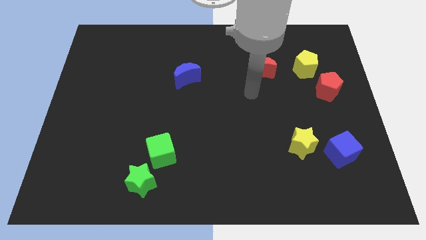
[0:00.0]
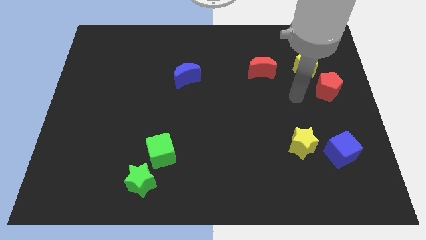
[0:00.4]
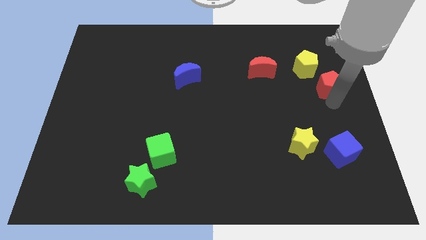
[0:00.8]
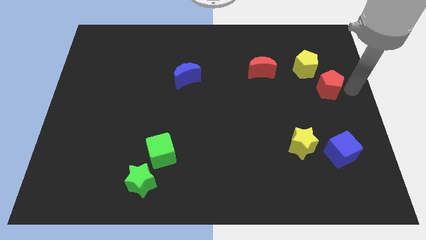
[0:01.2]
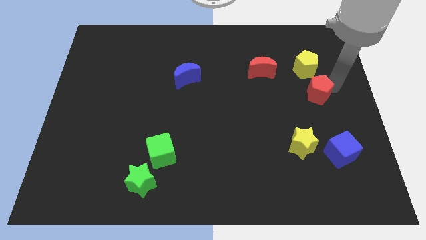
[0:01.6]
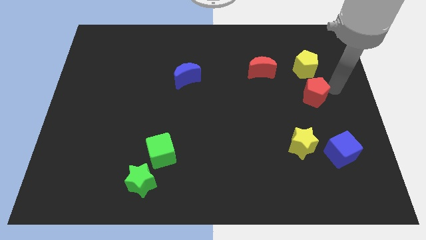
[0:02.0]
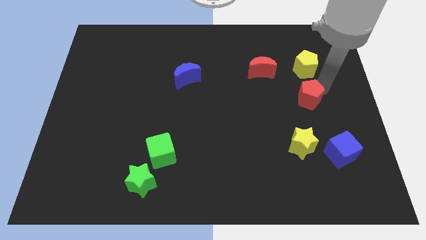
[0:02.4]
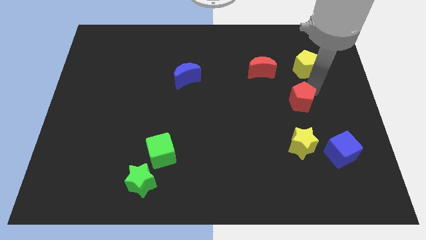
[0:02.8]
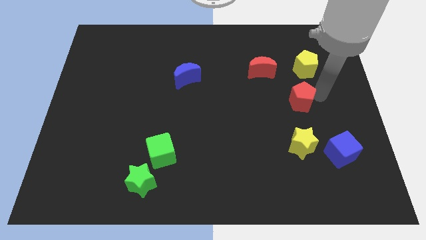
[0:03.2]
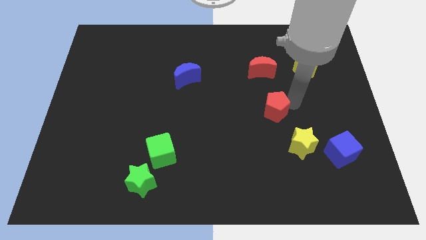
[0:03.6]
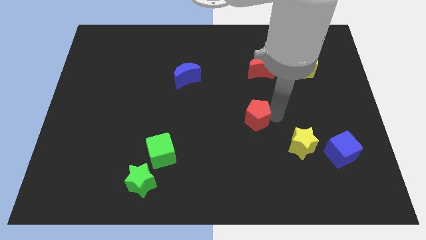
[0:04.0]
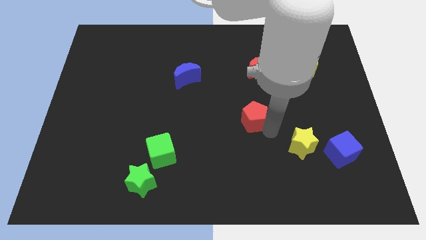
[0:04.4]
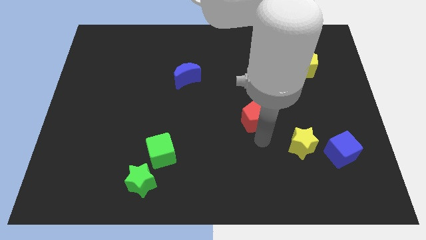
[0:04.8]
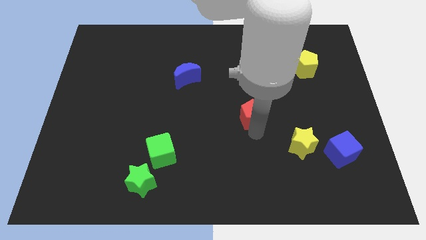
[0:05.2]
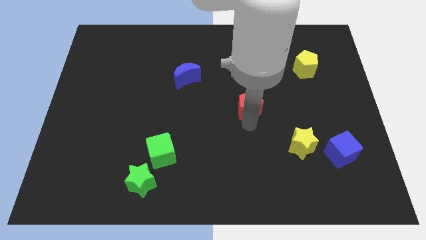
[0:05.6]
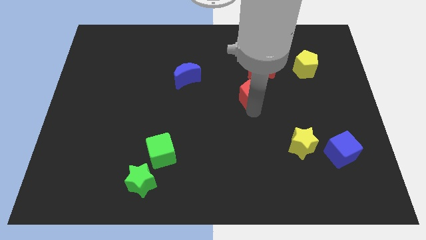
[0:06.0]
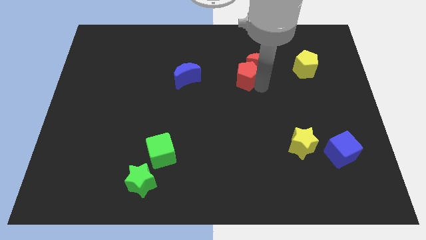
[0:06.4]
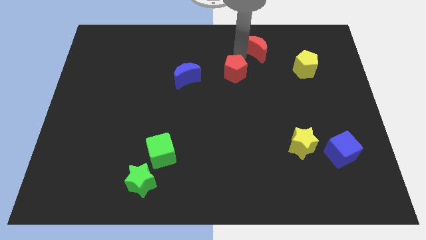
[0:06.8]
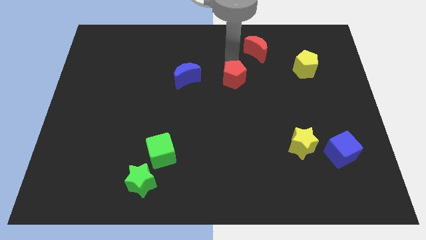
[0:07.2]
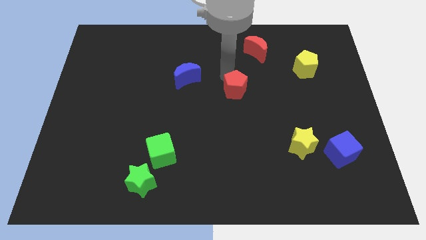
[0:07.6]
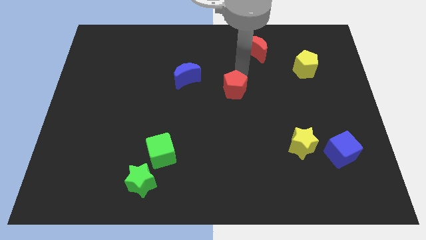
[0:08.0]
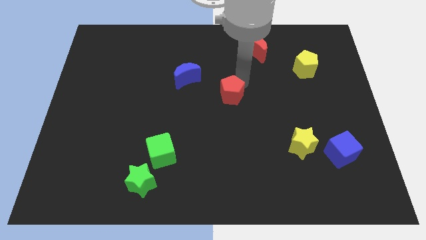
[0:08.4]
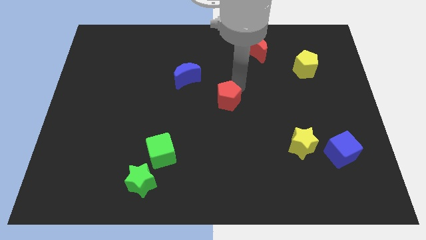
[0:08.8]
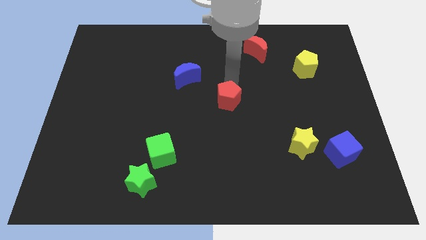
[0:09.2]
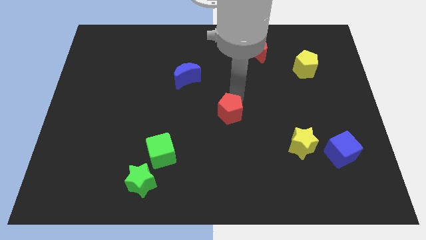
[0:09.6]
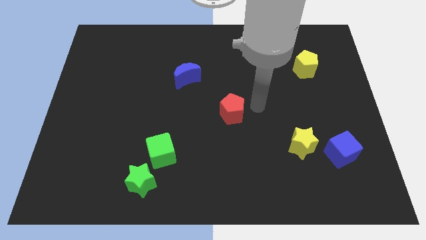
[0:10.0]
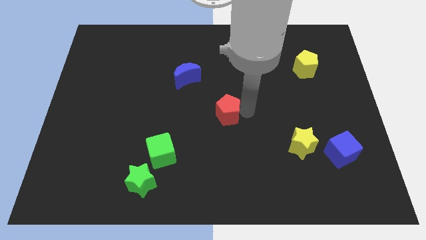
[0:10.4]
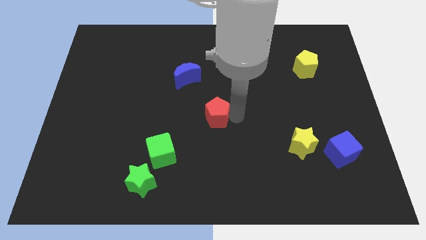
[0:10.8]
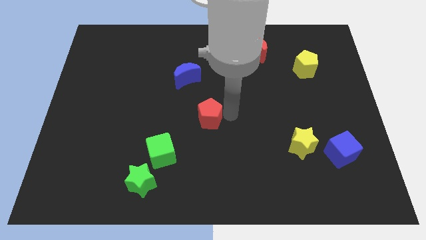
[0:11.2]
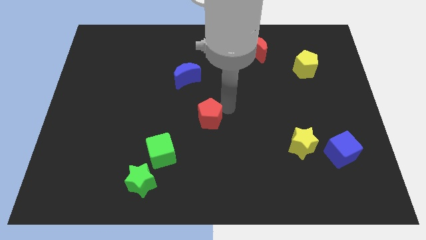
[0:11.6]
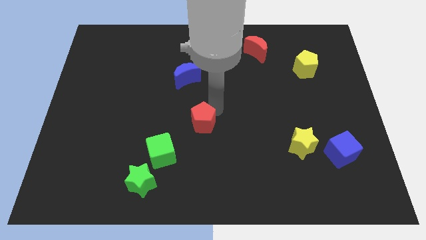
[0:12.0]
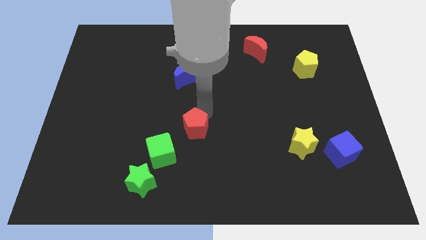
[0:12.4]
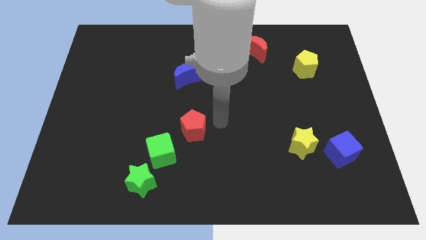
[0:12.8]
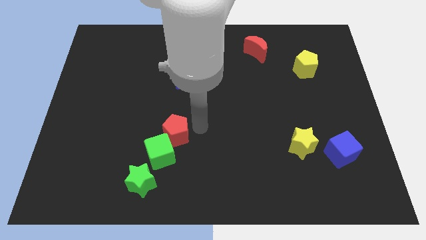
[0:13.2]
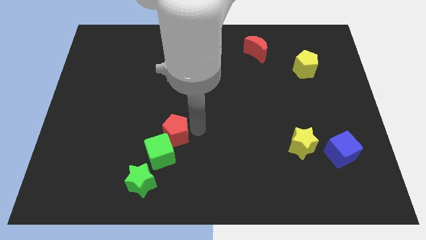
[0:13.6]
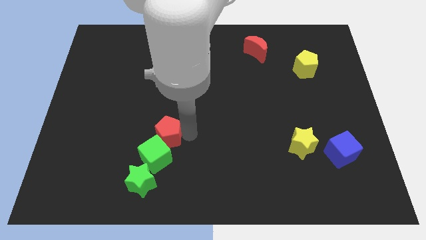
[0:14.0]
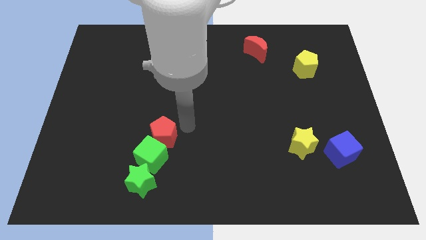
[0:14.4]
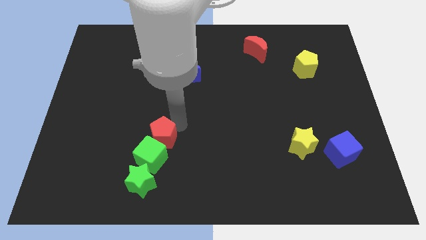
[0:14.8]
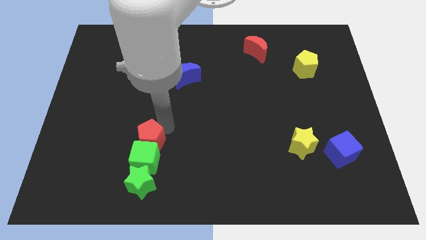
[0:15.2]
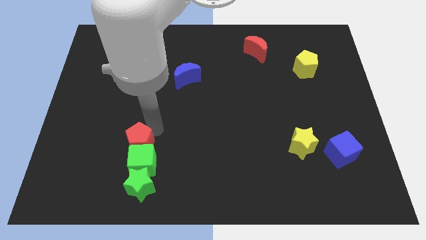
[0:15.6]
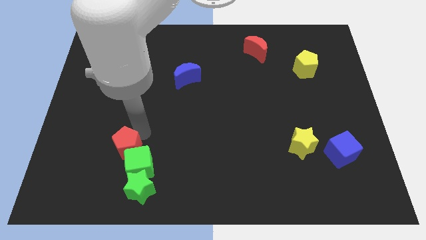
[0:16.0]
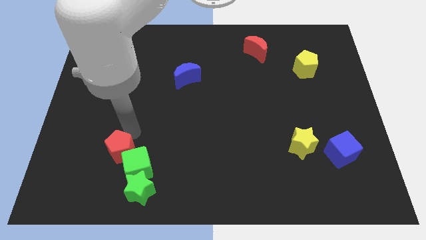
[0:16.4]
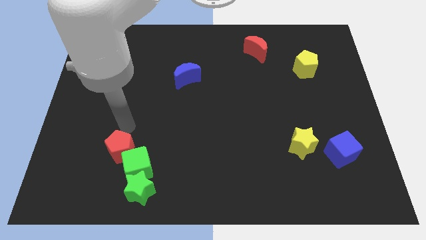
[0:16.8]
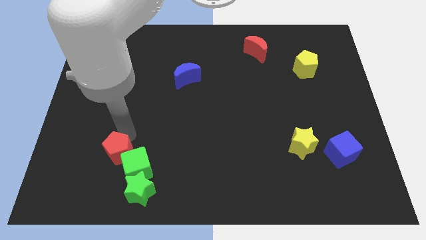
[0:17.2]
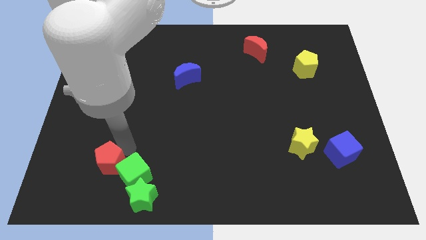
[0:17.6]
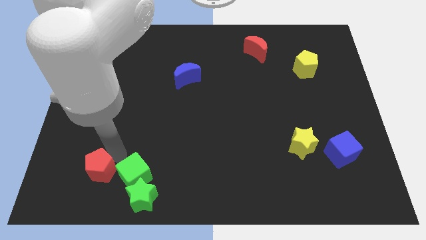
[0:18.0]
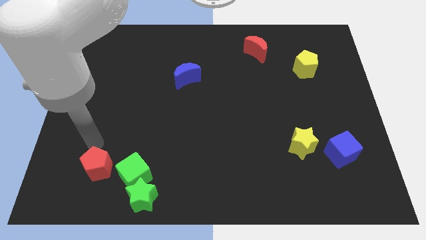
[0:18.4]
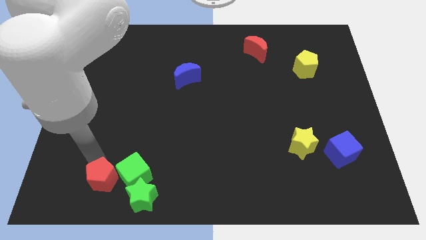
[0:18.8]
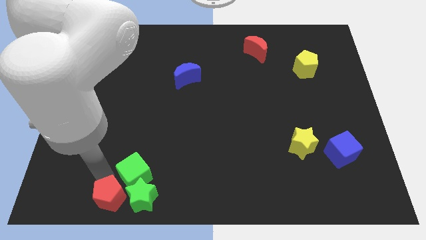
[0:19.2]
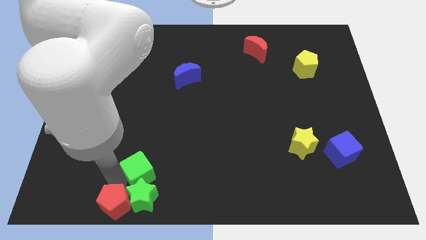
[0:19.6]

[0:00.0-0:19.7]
put the red pentagon to the bottom left side of the green cube

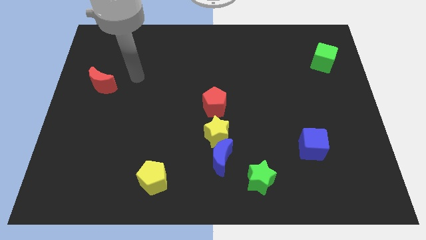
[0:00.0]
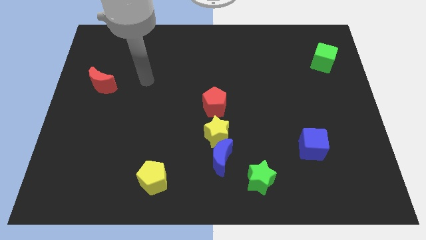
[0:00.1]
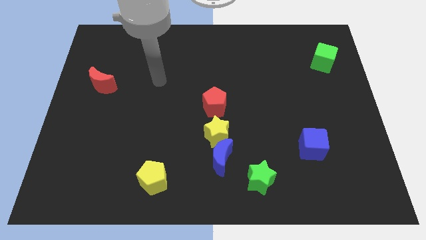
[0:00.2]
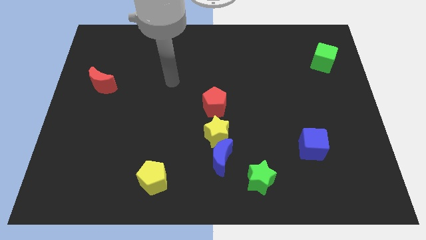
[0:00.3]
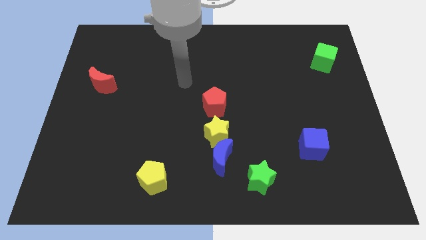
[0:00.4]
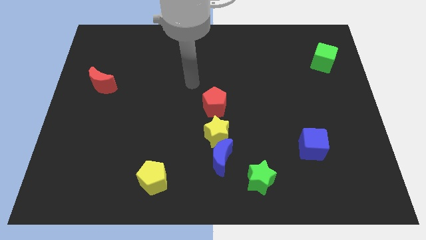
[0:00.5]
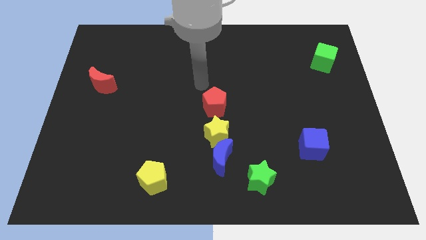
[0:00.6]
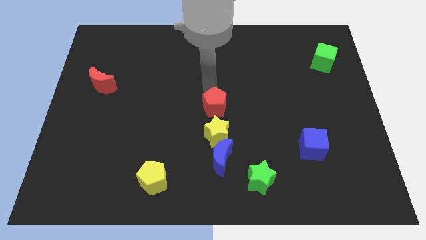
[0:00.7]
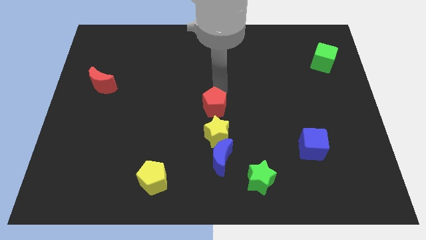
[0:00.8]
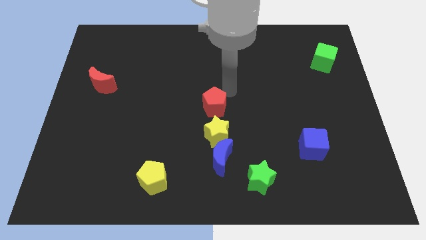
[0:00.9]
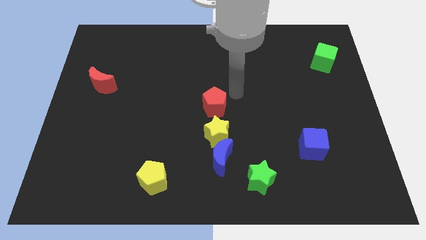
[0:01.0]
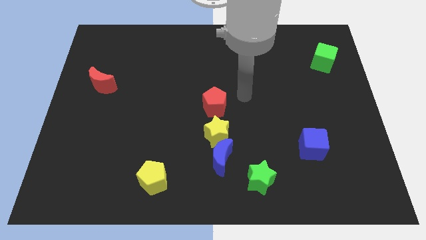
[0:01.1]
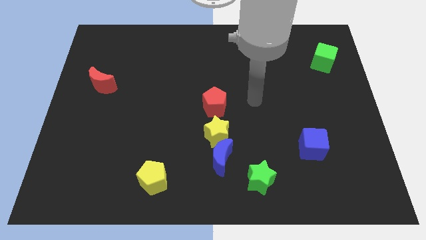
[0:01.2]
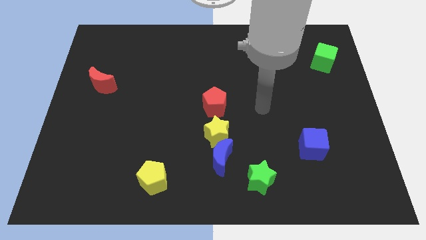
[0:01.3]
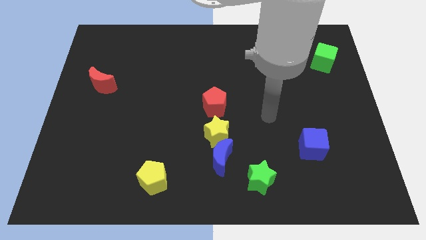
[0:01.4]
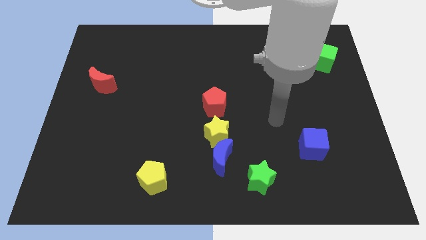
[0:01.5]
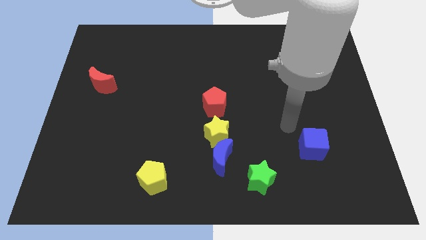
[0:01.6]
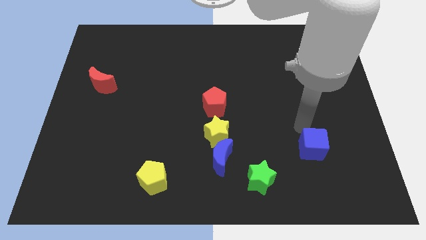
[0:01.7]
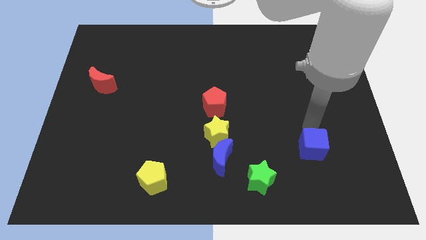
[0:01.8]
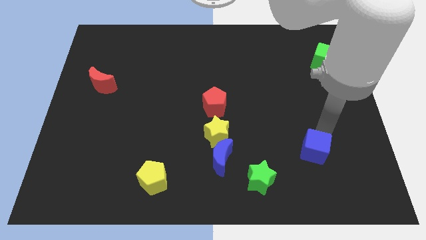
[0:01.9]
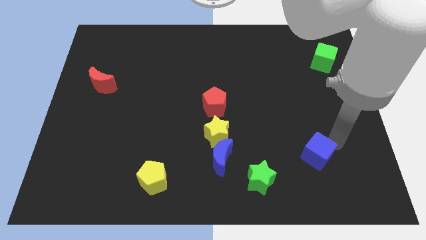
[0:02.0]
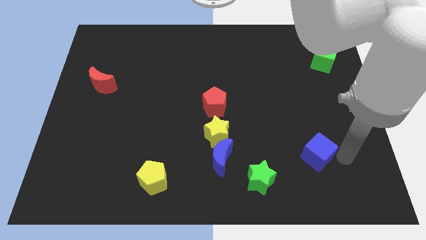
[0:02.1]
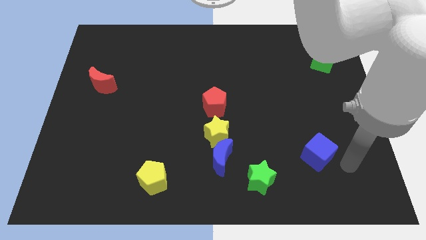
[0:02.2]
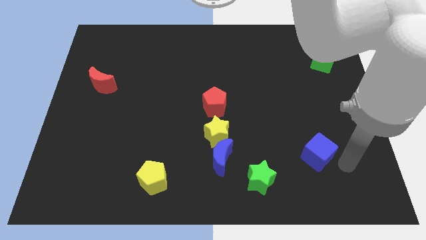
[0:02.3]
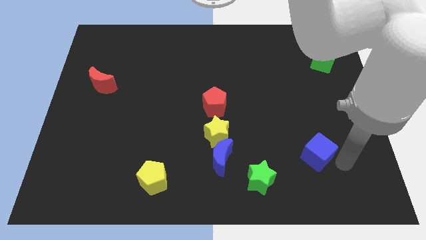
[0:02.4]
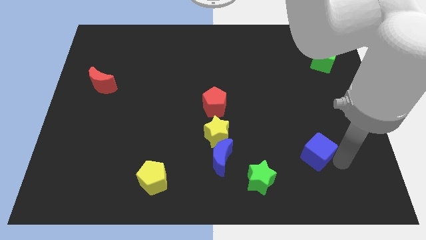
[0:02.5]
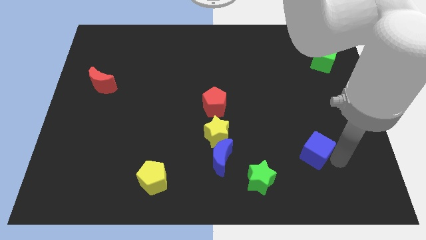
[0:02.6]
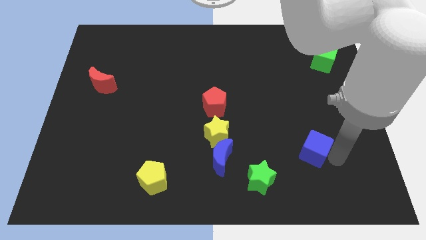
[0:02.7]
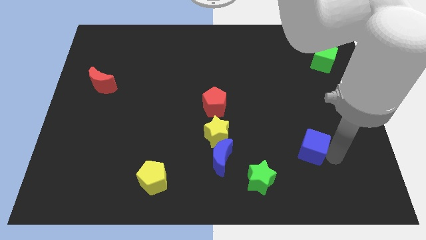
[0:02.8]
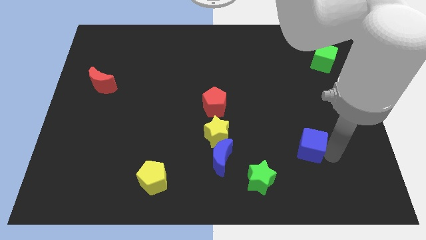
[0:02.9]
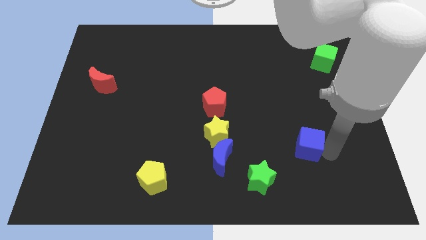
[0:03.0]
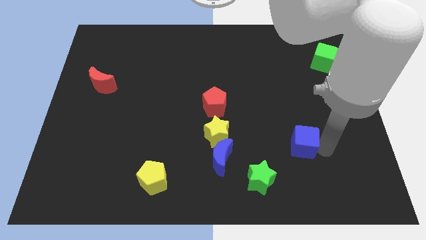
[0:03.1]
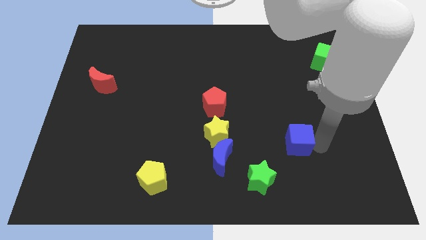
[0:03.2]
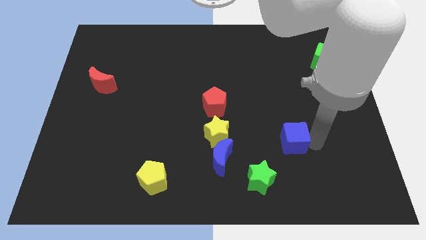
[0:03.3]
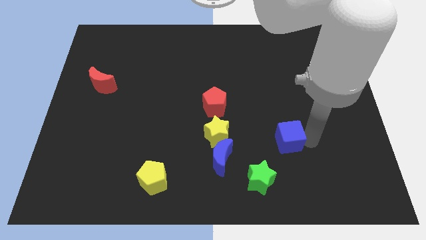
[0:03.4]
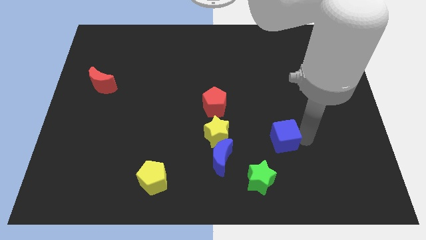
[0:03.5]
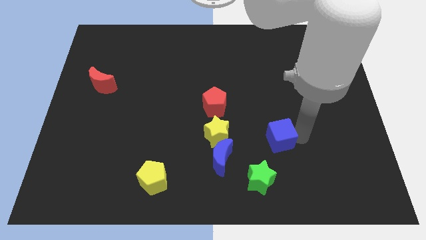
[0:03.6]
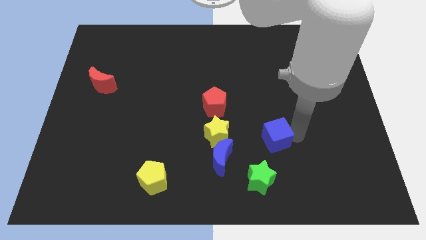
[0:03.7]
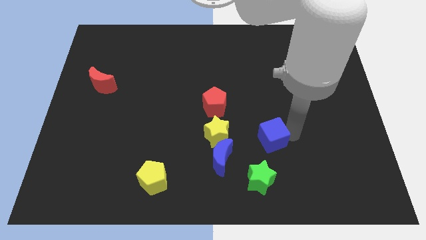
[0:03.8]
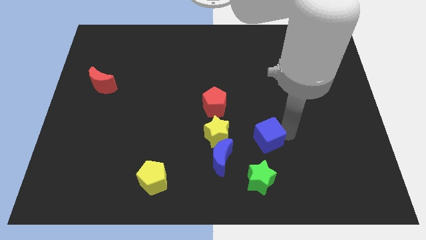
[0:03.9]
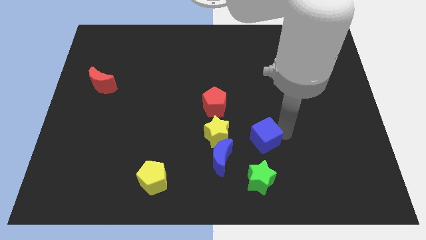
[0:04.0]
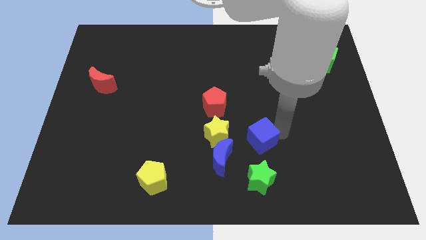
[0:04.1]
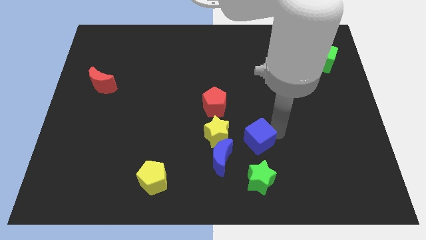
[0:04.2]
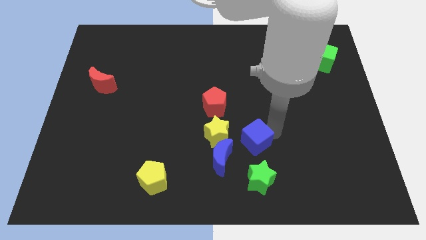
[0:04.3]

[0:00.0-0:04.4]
move the blue cube to the bottom right of the yellow star
